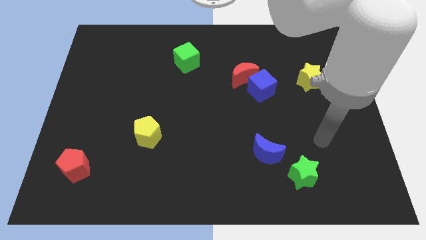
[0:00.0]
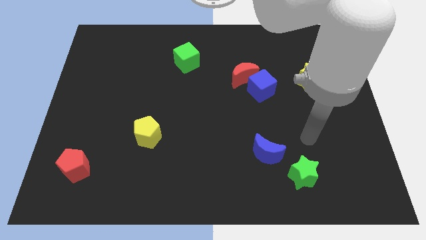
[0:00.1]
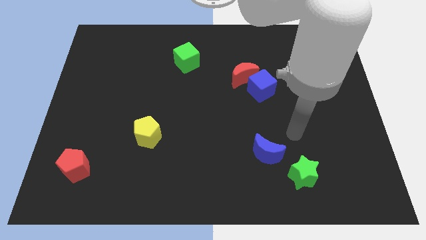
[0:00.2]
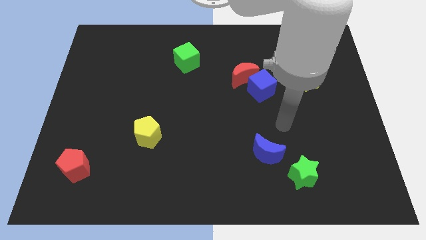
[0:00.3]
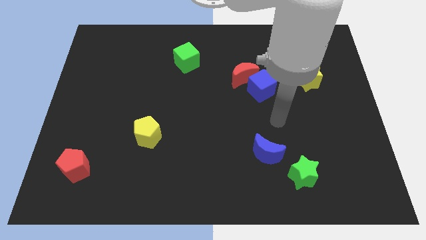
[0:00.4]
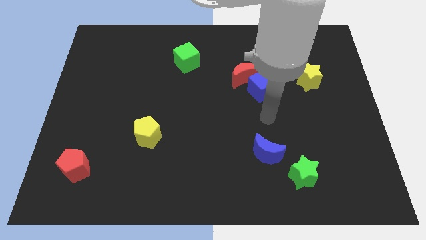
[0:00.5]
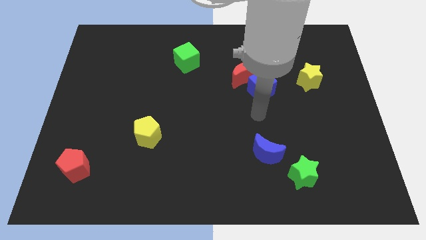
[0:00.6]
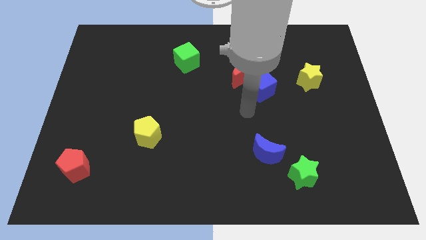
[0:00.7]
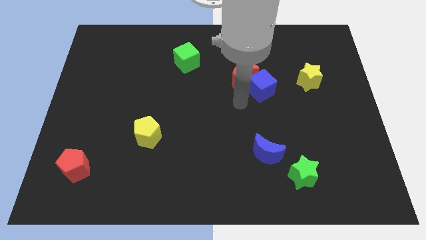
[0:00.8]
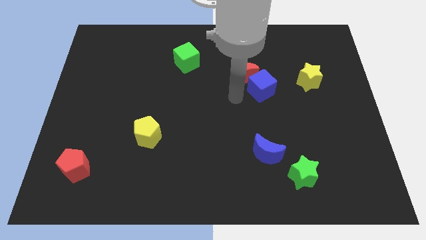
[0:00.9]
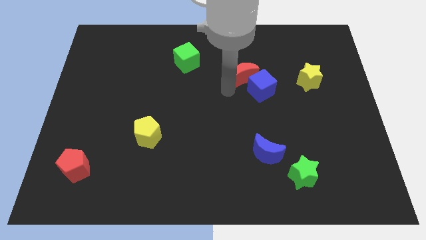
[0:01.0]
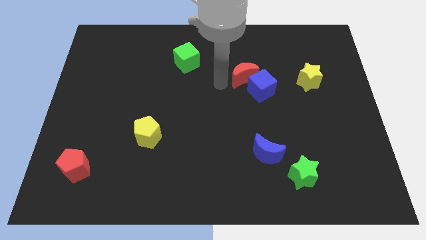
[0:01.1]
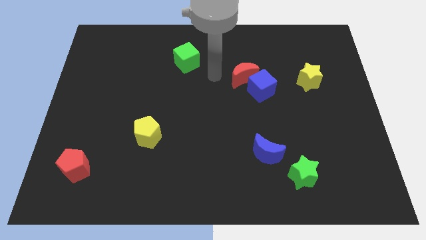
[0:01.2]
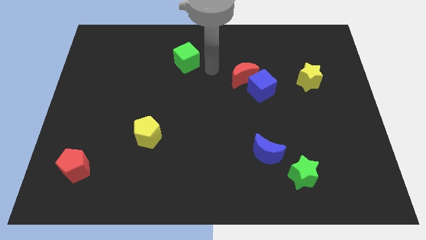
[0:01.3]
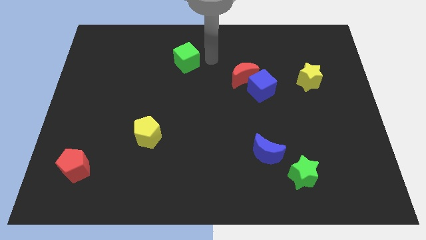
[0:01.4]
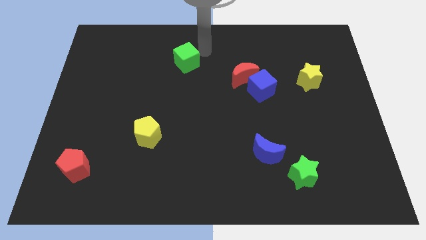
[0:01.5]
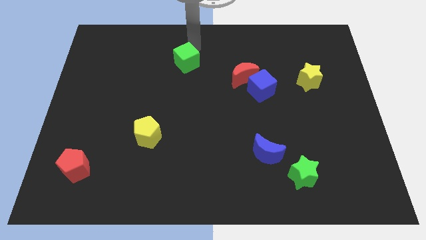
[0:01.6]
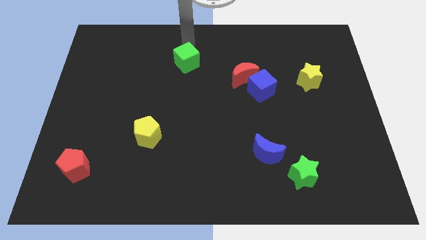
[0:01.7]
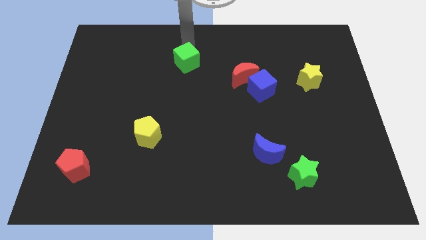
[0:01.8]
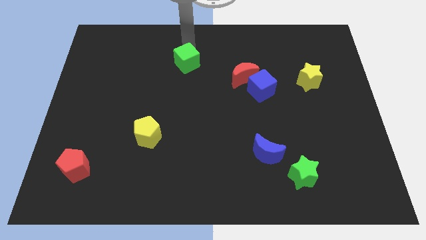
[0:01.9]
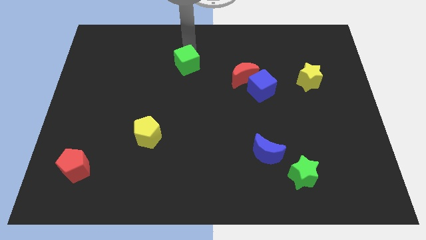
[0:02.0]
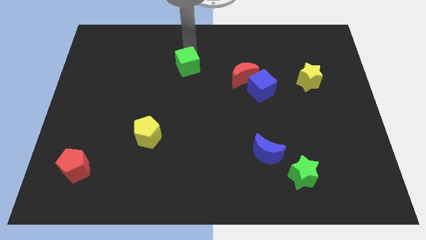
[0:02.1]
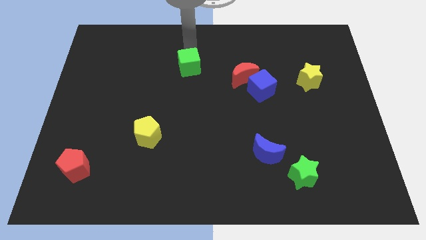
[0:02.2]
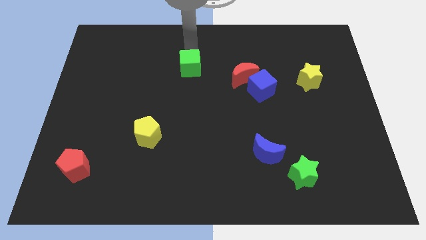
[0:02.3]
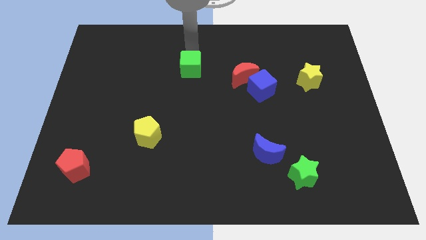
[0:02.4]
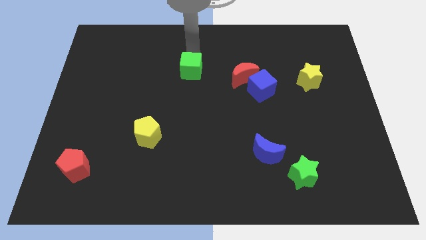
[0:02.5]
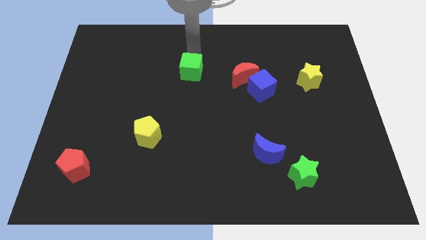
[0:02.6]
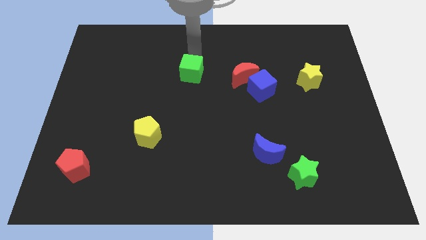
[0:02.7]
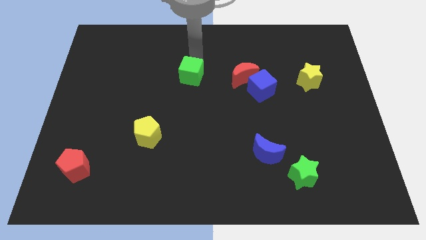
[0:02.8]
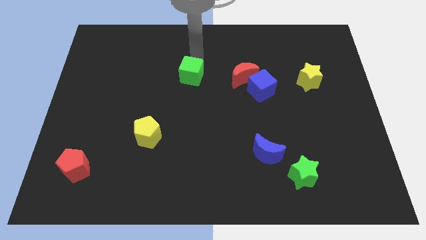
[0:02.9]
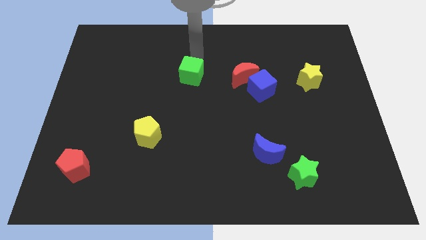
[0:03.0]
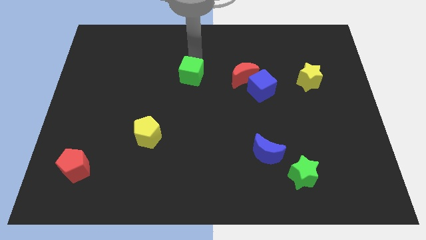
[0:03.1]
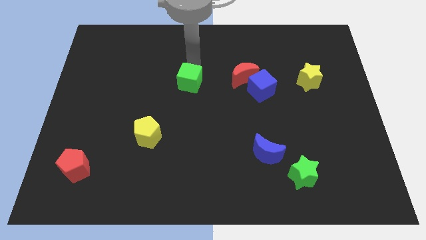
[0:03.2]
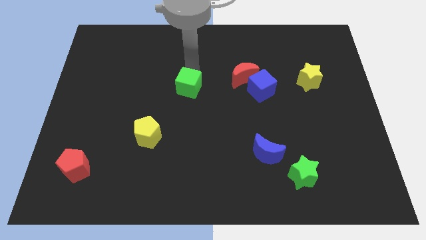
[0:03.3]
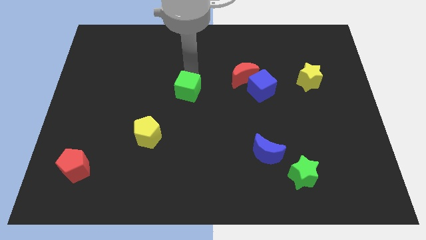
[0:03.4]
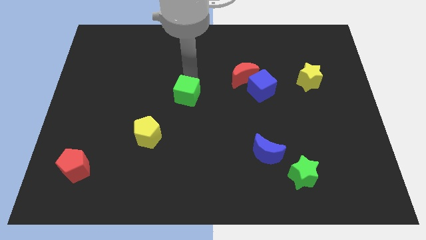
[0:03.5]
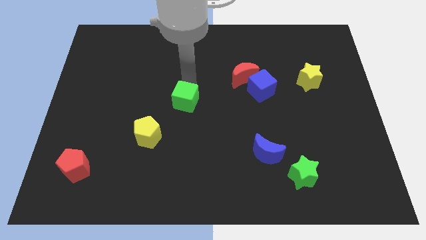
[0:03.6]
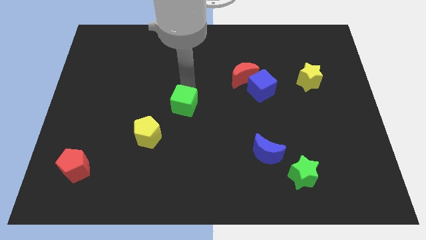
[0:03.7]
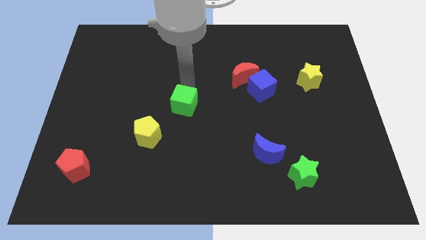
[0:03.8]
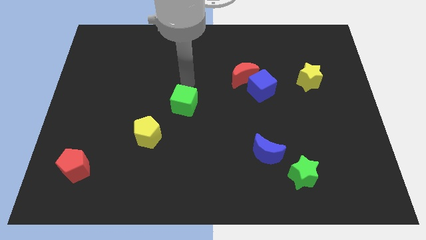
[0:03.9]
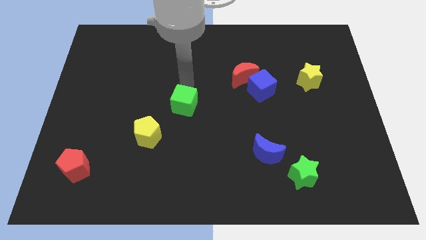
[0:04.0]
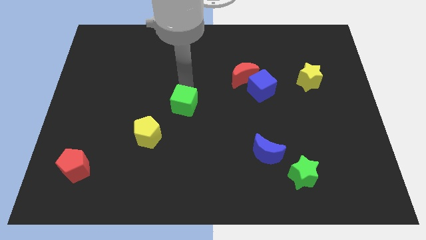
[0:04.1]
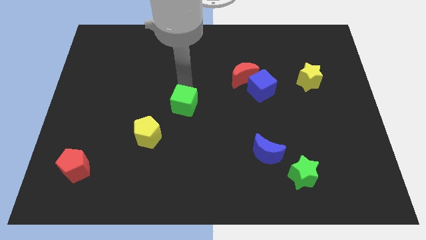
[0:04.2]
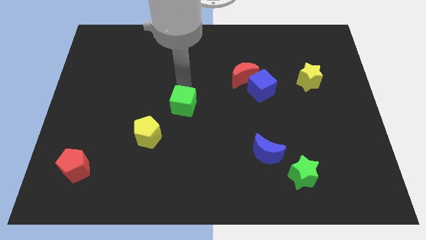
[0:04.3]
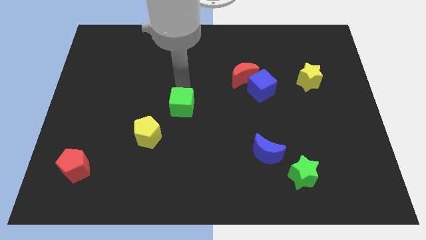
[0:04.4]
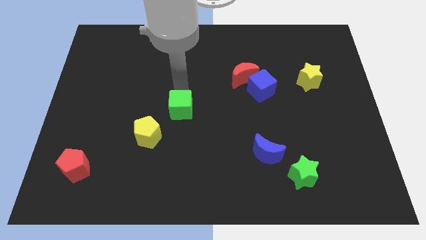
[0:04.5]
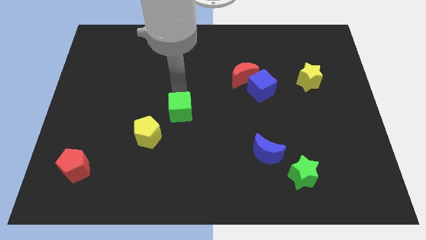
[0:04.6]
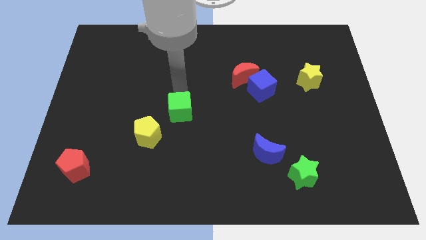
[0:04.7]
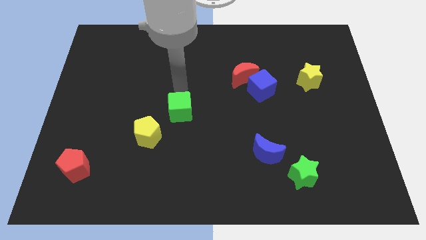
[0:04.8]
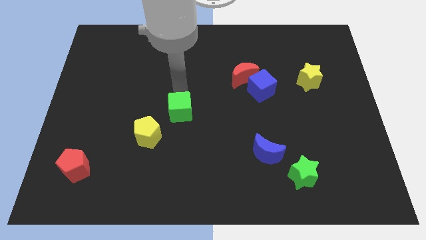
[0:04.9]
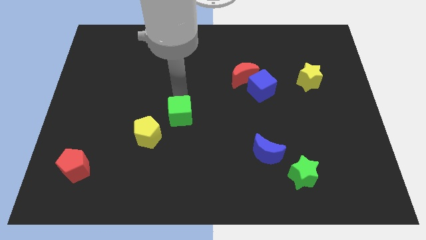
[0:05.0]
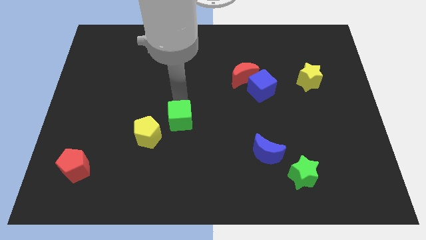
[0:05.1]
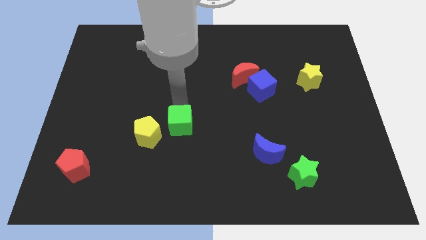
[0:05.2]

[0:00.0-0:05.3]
move the green cube downwards

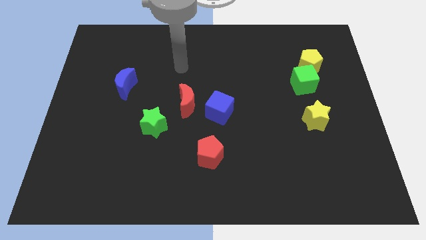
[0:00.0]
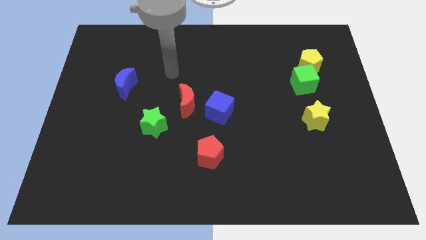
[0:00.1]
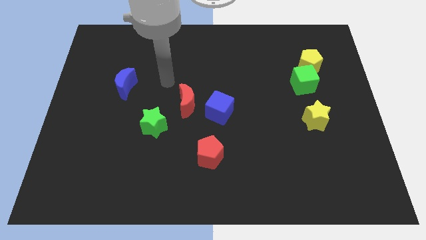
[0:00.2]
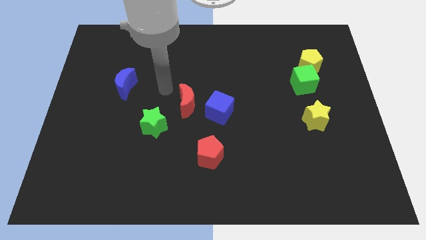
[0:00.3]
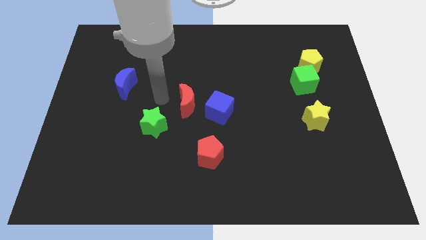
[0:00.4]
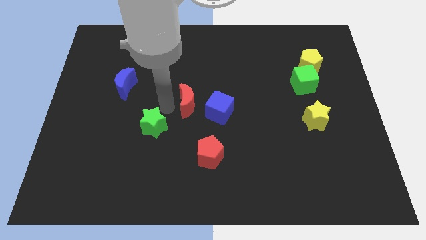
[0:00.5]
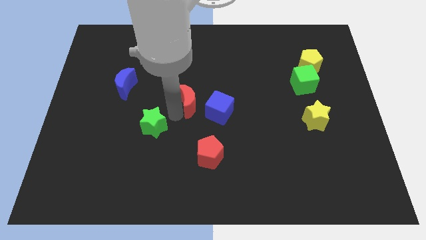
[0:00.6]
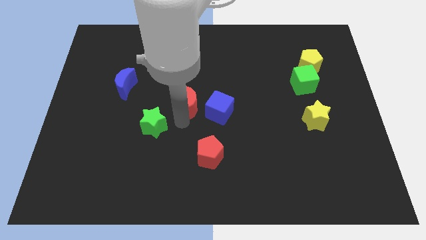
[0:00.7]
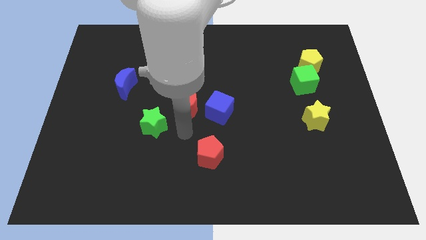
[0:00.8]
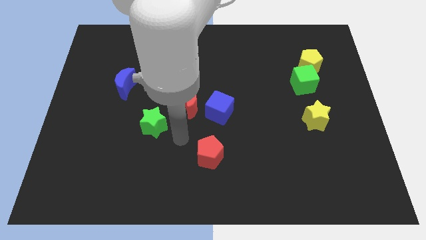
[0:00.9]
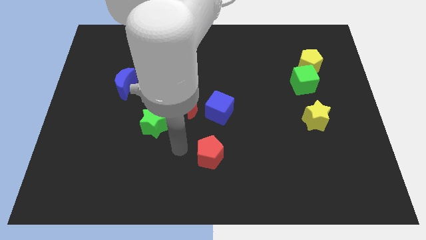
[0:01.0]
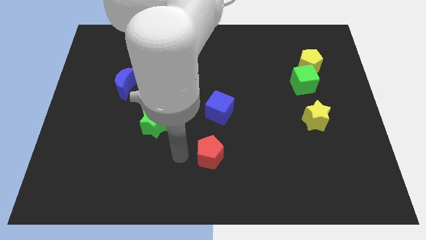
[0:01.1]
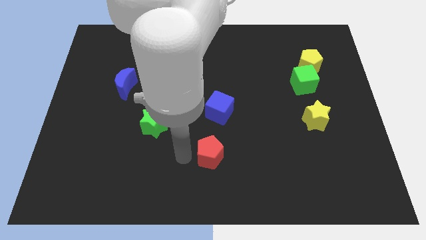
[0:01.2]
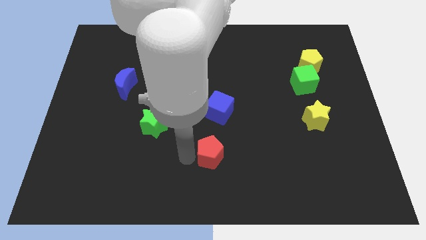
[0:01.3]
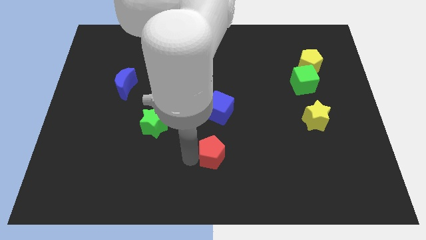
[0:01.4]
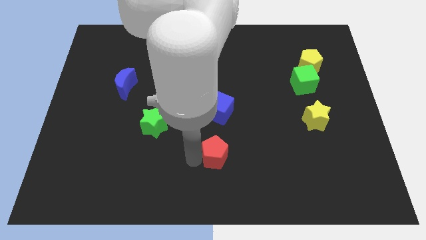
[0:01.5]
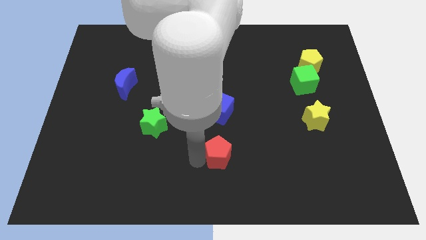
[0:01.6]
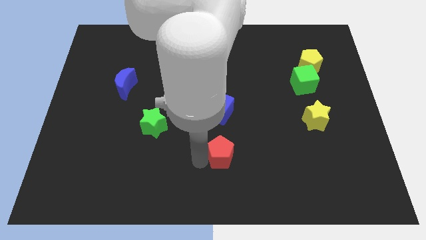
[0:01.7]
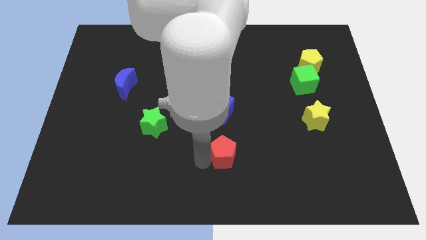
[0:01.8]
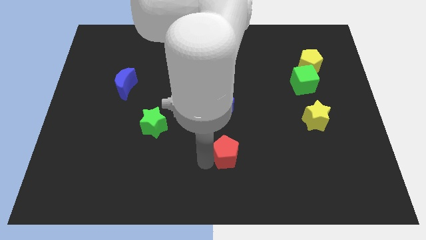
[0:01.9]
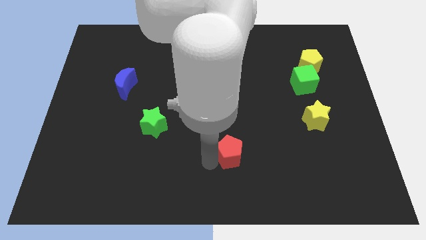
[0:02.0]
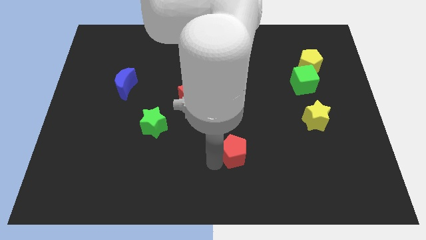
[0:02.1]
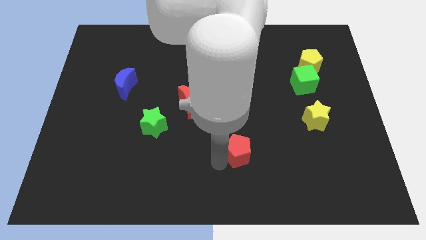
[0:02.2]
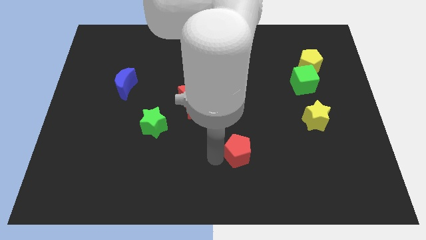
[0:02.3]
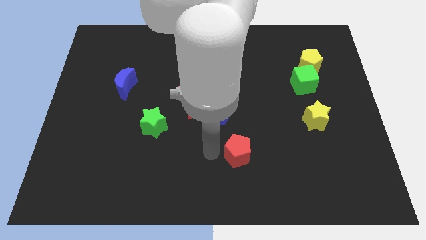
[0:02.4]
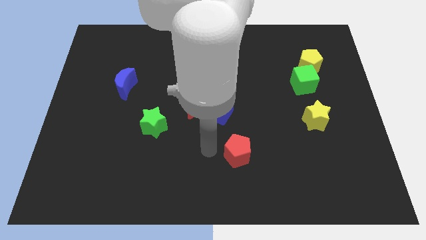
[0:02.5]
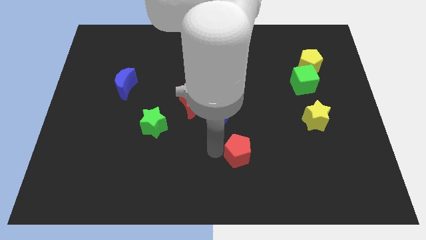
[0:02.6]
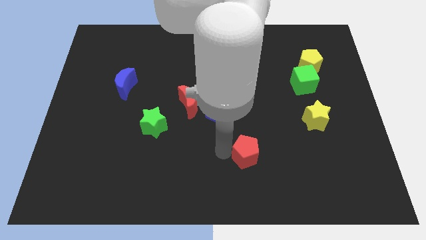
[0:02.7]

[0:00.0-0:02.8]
slightly push the red pentagon to the right

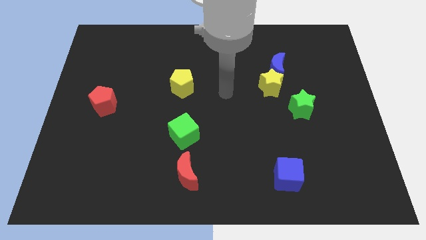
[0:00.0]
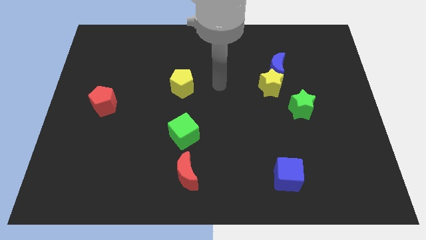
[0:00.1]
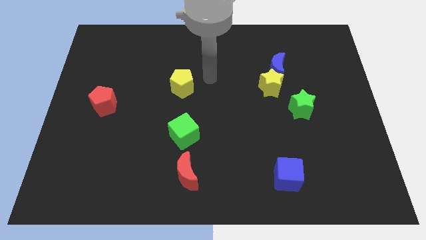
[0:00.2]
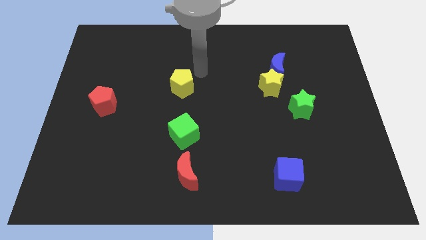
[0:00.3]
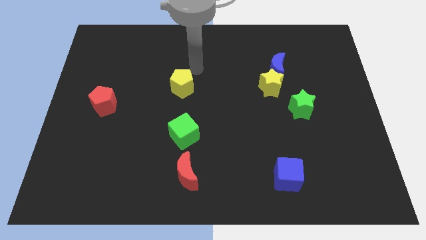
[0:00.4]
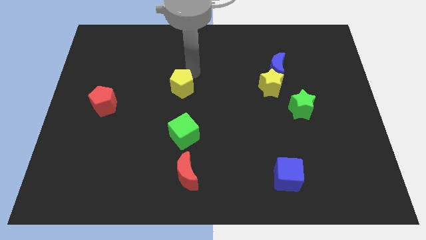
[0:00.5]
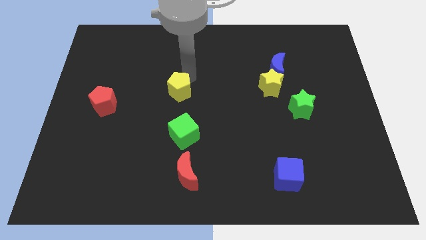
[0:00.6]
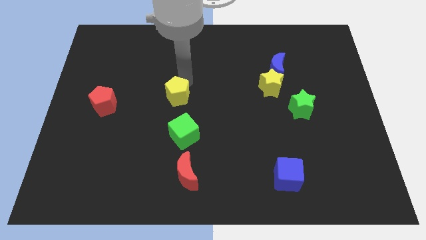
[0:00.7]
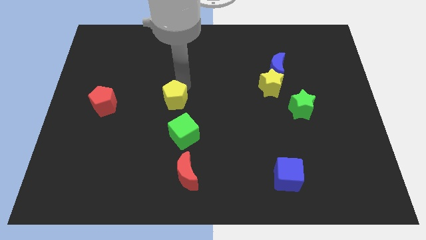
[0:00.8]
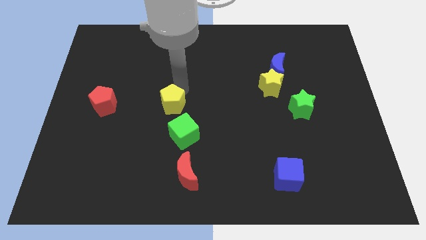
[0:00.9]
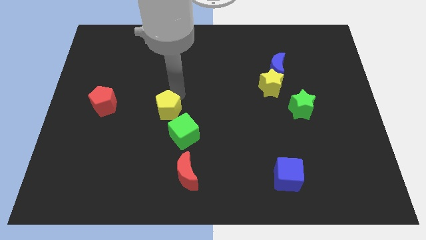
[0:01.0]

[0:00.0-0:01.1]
push the yellow pentagon downwards a little
